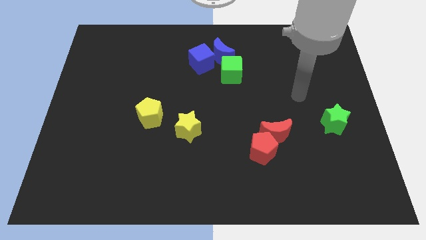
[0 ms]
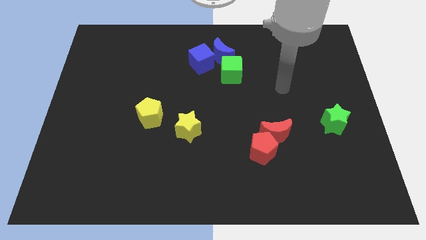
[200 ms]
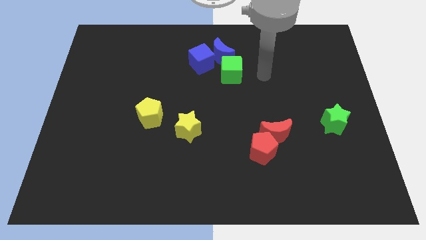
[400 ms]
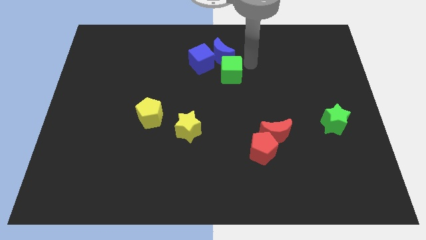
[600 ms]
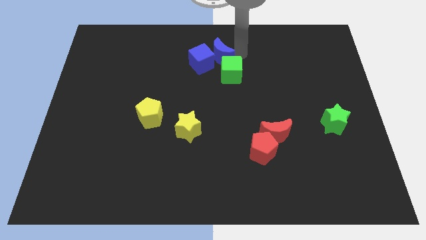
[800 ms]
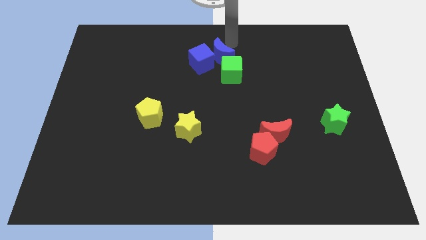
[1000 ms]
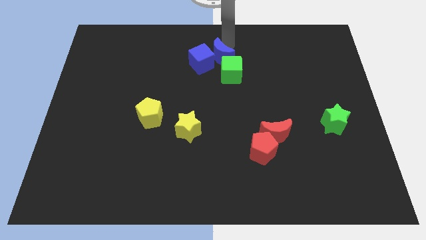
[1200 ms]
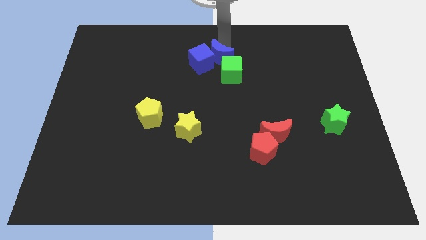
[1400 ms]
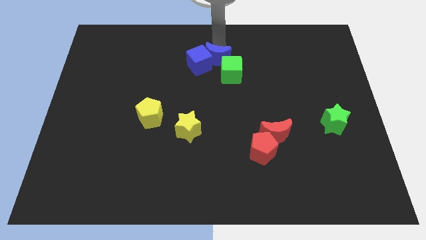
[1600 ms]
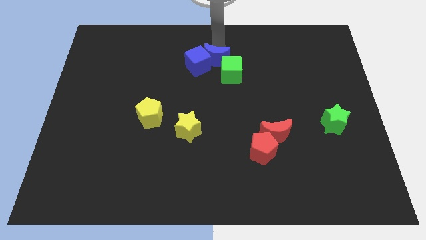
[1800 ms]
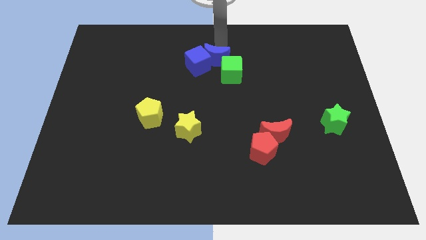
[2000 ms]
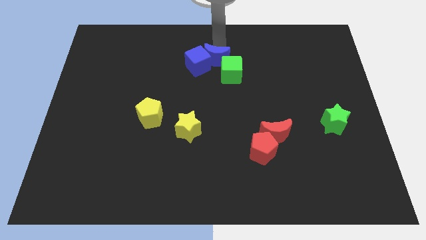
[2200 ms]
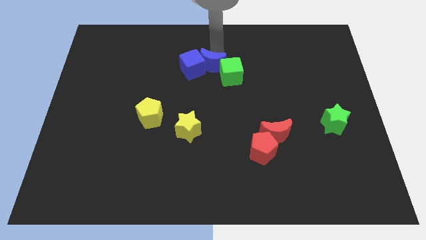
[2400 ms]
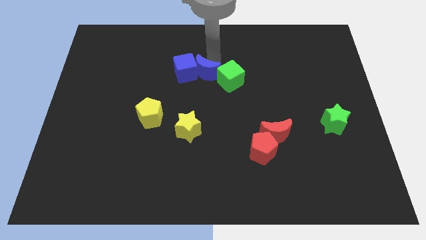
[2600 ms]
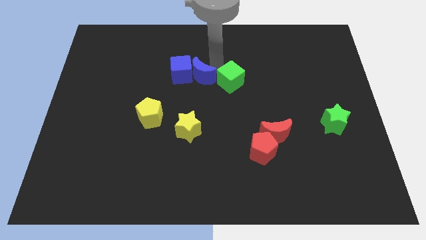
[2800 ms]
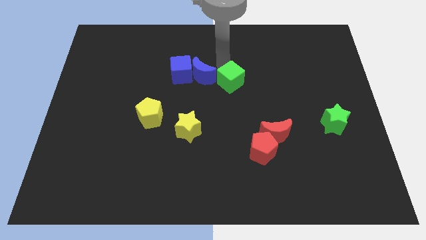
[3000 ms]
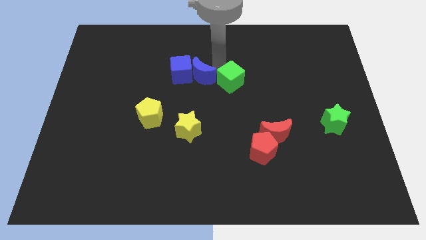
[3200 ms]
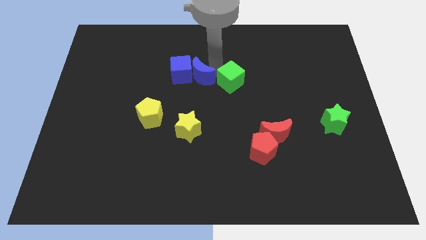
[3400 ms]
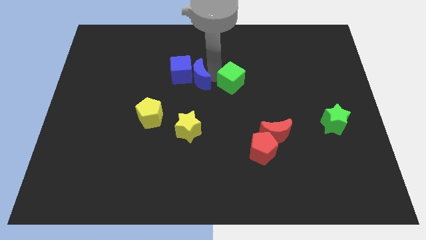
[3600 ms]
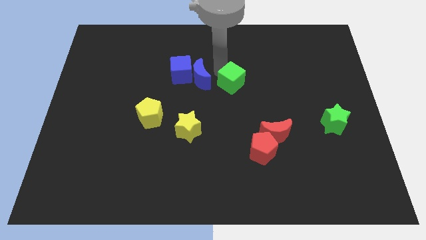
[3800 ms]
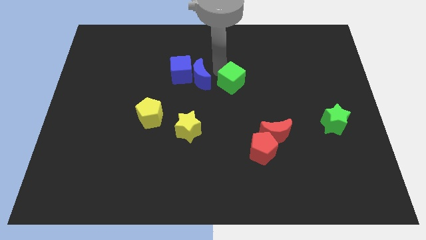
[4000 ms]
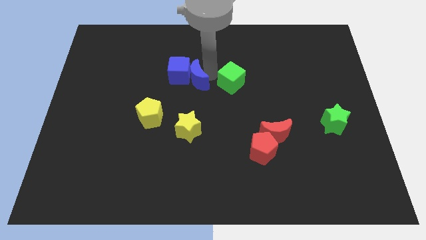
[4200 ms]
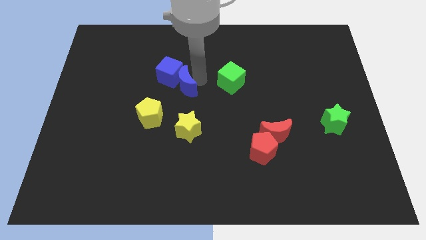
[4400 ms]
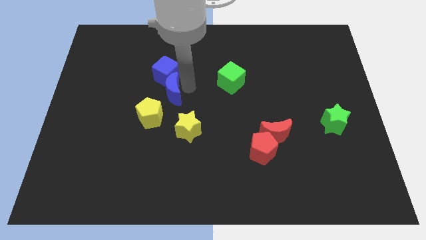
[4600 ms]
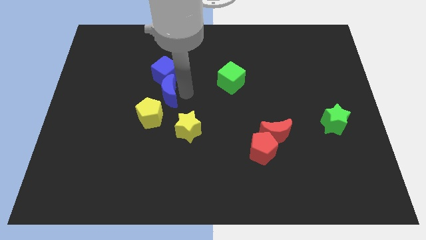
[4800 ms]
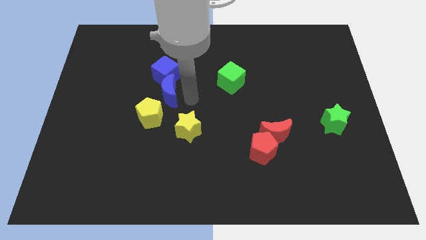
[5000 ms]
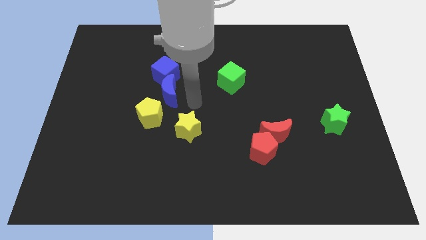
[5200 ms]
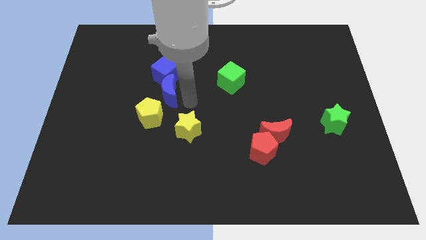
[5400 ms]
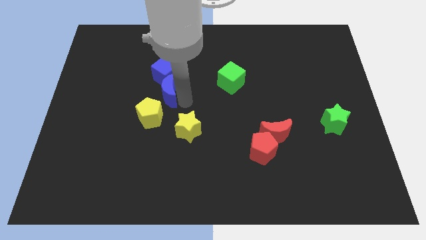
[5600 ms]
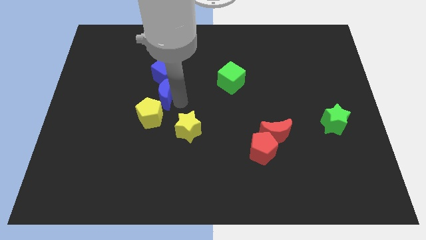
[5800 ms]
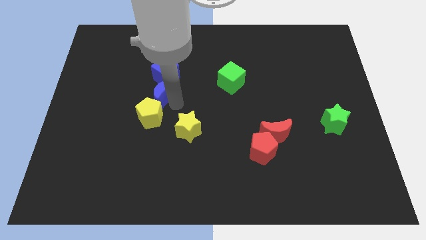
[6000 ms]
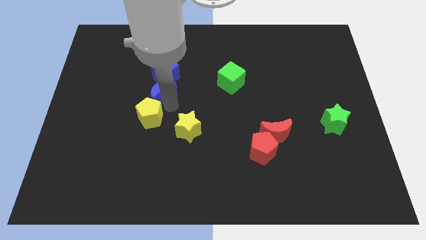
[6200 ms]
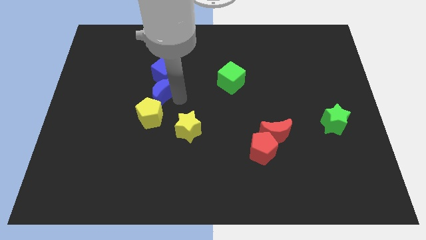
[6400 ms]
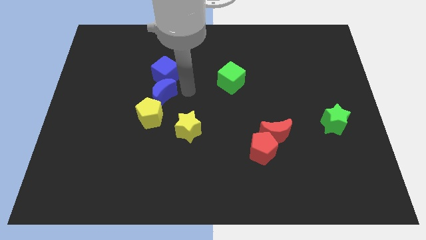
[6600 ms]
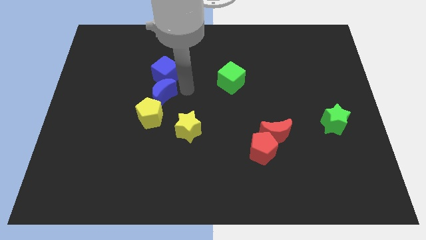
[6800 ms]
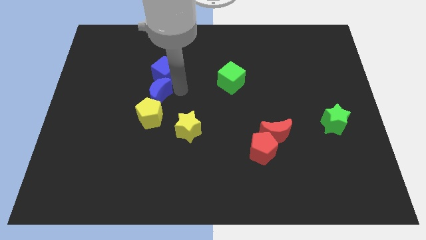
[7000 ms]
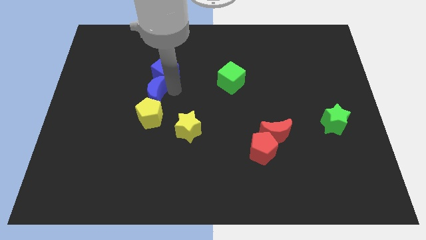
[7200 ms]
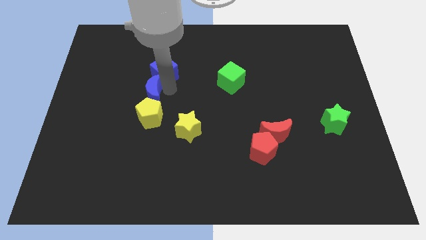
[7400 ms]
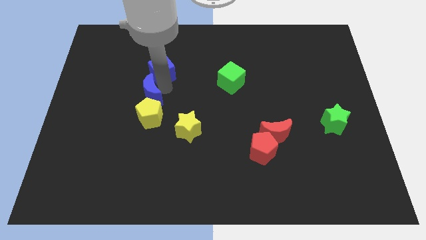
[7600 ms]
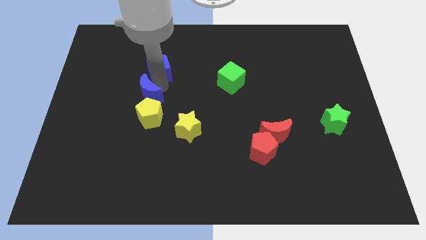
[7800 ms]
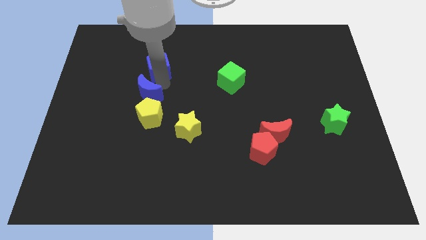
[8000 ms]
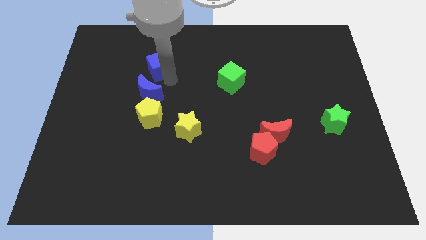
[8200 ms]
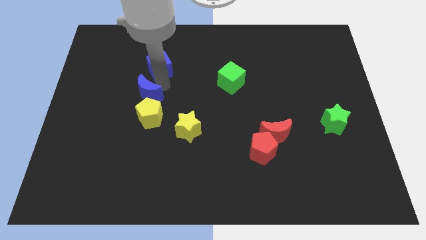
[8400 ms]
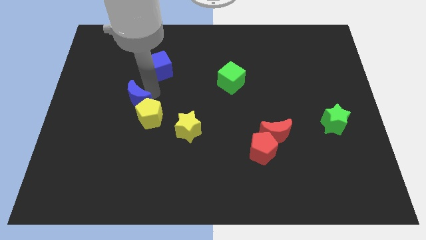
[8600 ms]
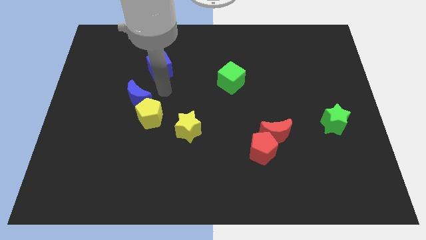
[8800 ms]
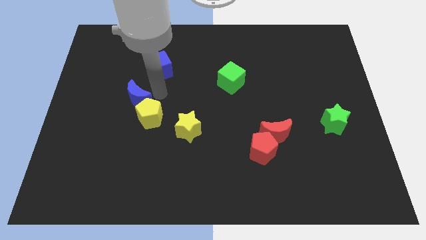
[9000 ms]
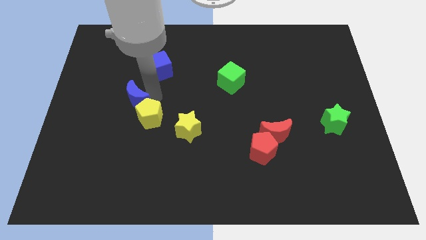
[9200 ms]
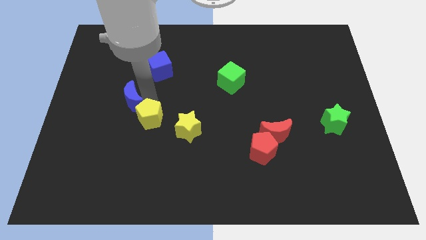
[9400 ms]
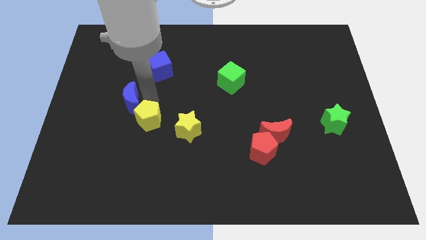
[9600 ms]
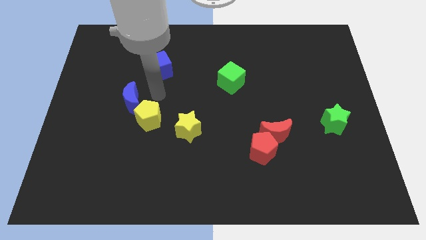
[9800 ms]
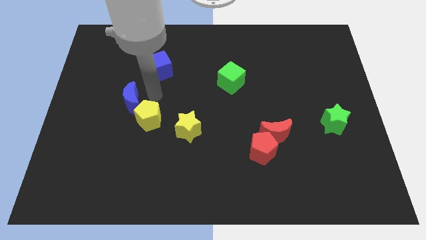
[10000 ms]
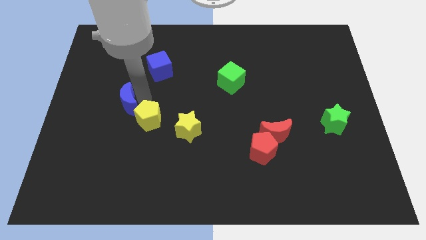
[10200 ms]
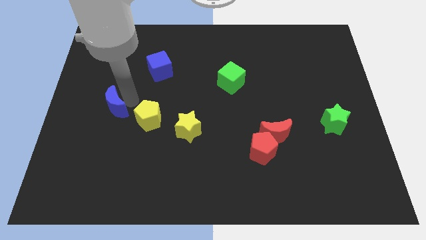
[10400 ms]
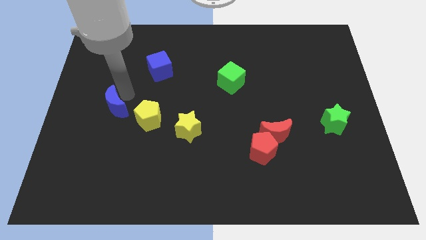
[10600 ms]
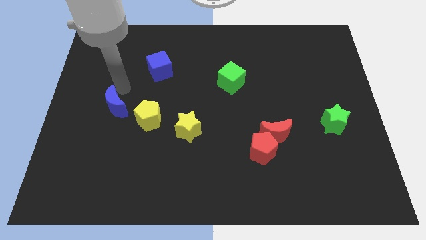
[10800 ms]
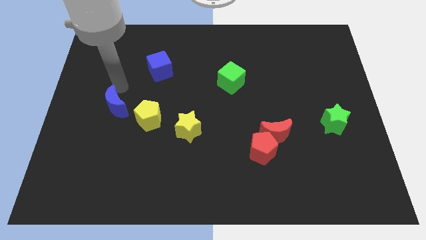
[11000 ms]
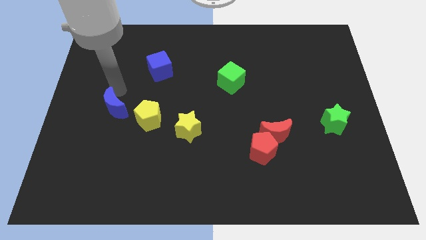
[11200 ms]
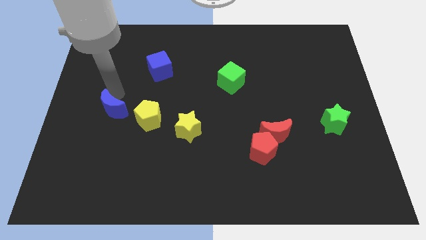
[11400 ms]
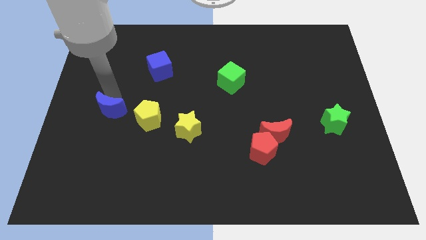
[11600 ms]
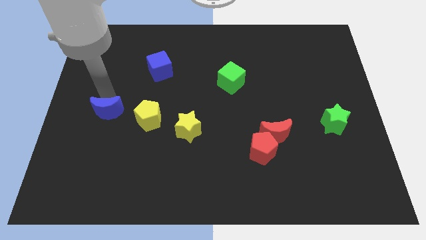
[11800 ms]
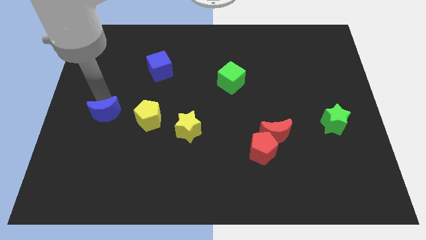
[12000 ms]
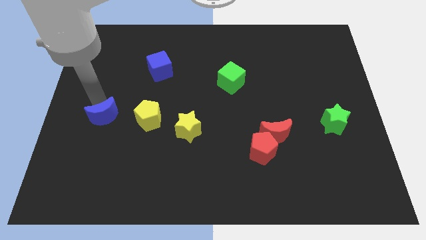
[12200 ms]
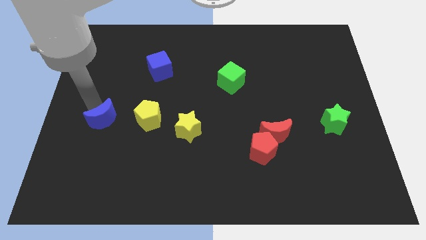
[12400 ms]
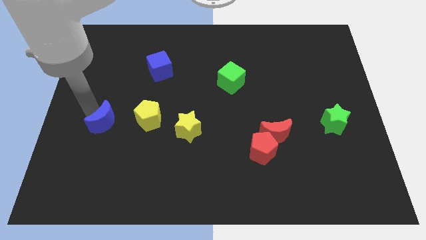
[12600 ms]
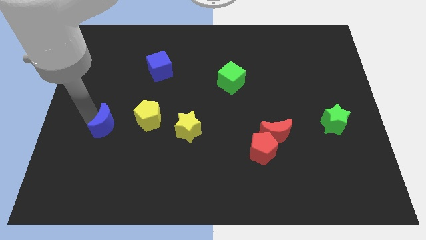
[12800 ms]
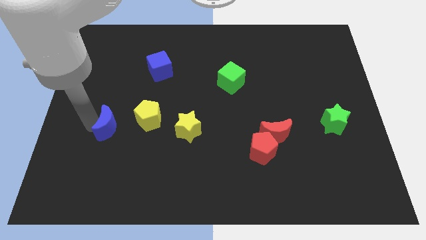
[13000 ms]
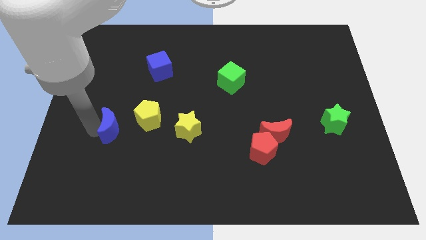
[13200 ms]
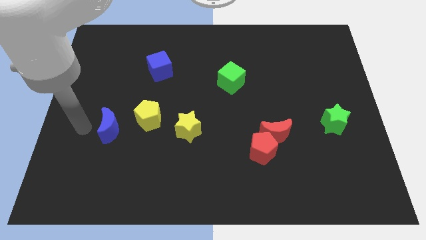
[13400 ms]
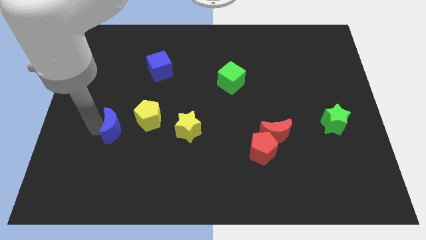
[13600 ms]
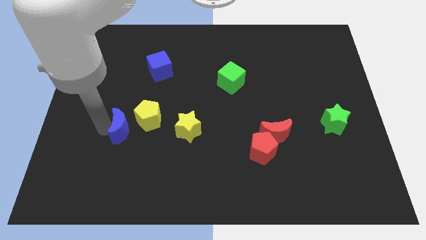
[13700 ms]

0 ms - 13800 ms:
push the blue moon to the left of the yellow star

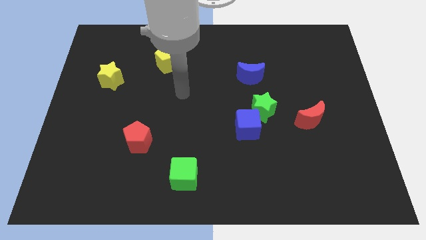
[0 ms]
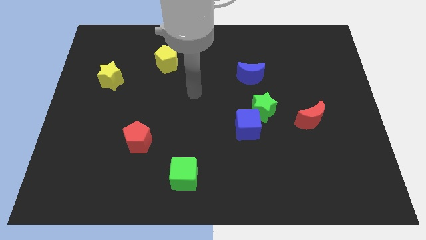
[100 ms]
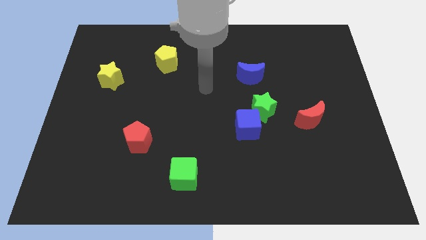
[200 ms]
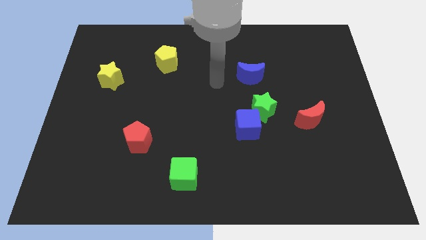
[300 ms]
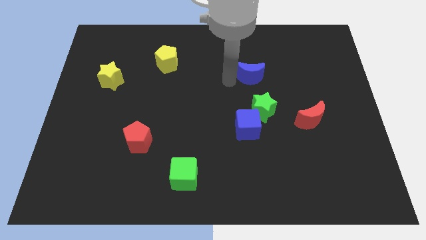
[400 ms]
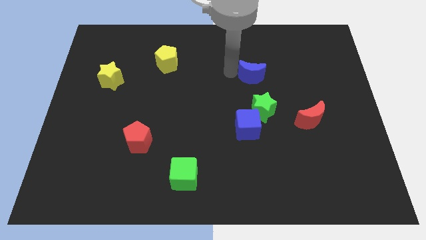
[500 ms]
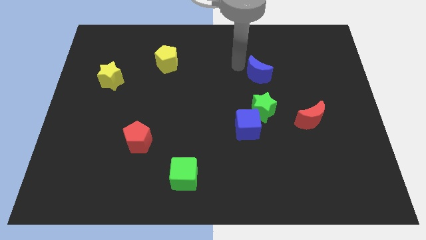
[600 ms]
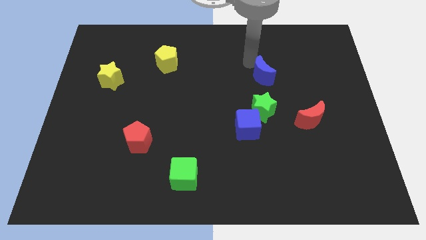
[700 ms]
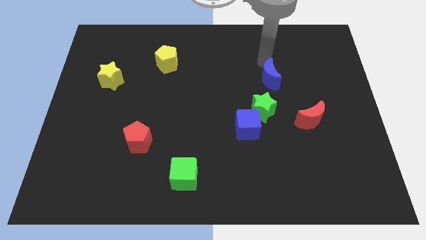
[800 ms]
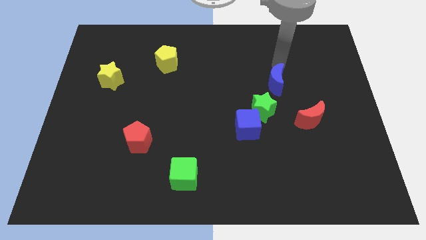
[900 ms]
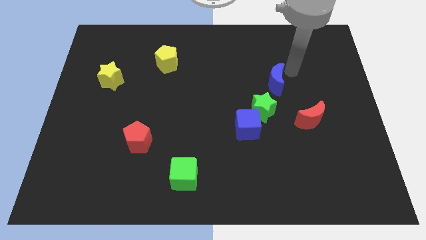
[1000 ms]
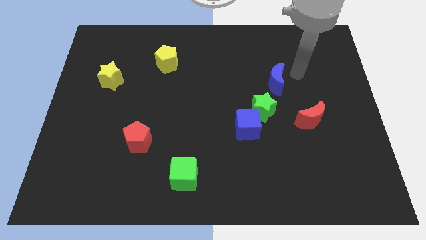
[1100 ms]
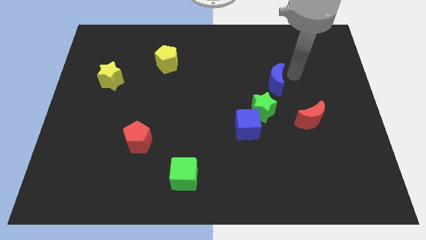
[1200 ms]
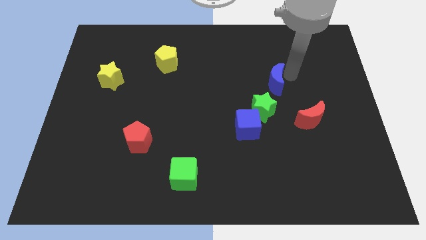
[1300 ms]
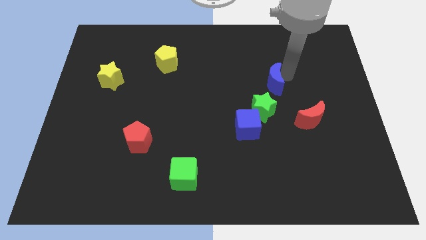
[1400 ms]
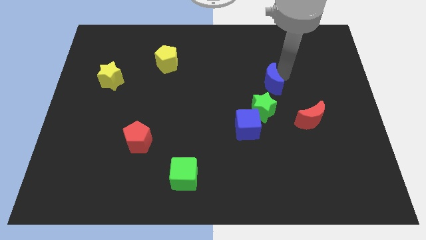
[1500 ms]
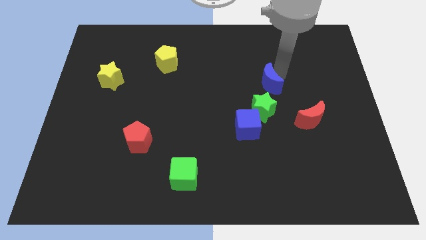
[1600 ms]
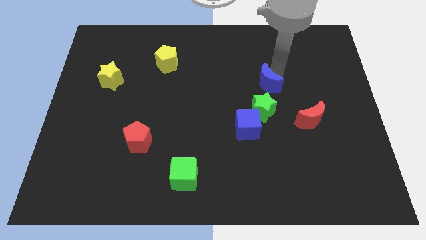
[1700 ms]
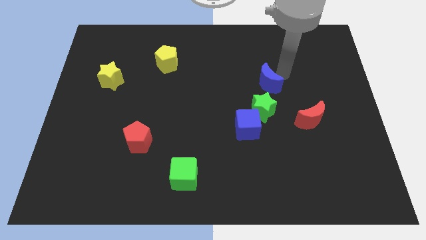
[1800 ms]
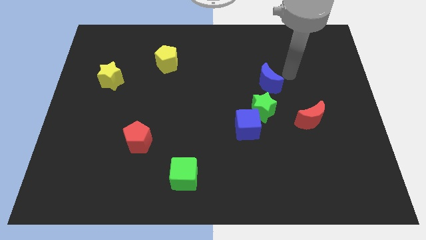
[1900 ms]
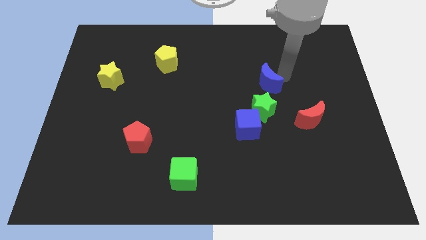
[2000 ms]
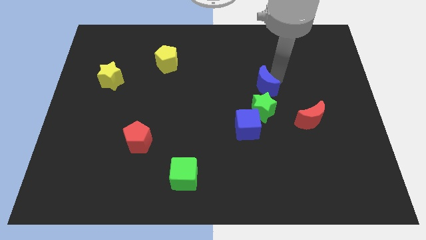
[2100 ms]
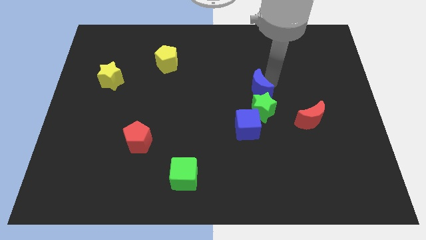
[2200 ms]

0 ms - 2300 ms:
push the blue moon diagonally up and to the left of the green star
